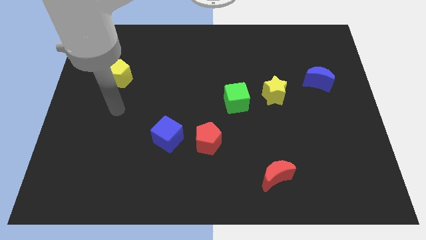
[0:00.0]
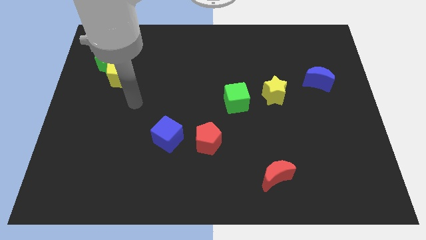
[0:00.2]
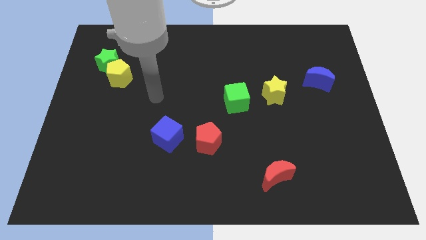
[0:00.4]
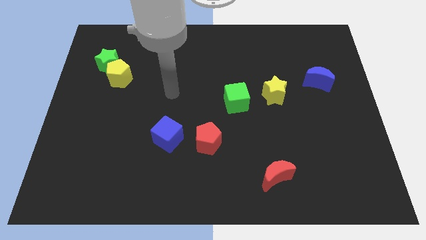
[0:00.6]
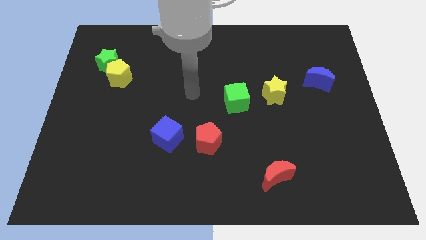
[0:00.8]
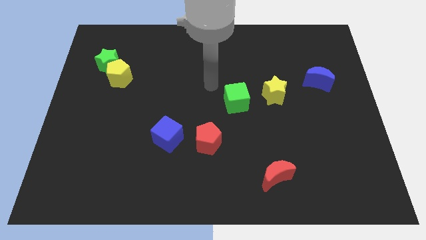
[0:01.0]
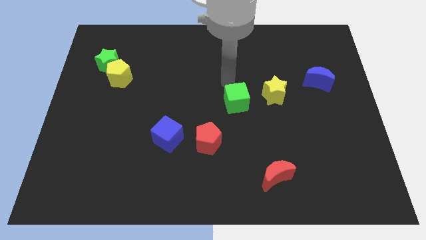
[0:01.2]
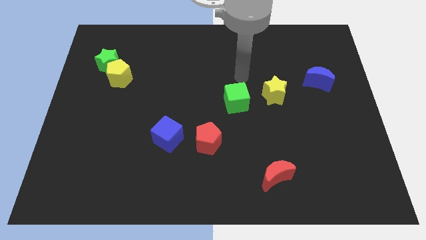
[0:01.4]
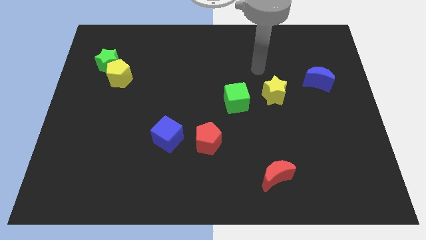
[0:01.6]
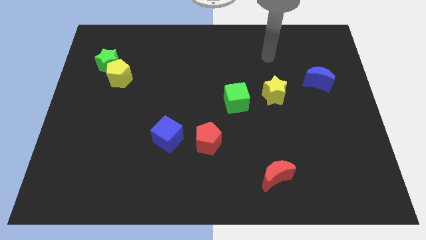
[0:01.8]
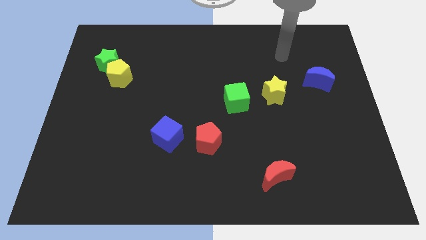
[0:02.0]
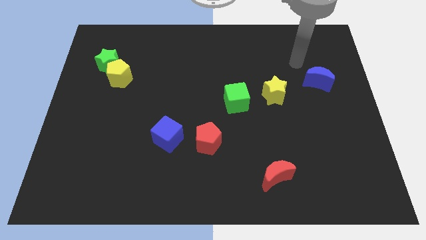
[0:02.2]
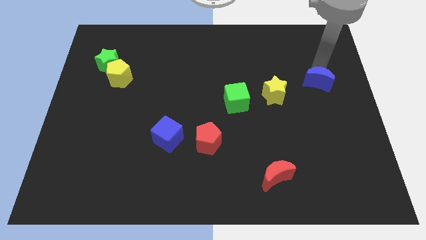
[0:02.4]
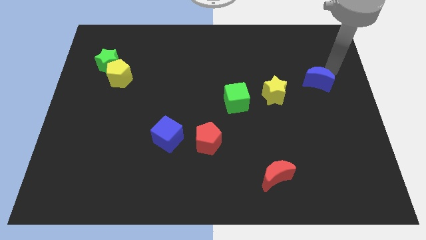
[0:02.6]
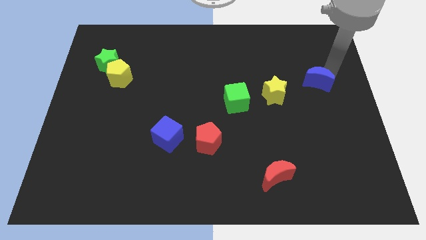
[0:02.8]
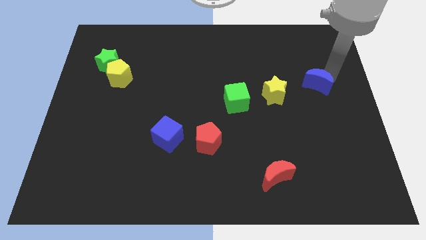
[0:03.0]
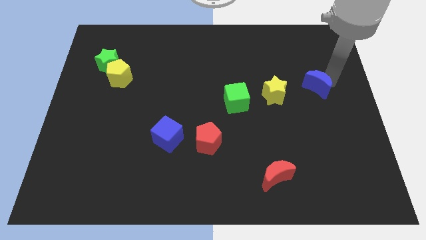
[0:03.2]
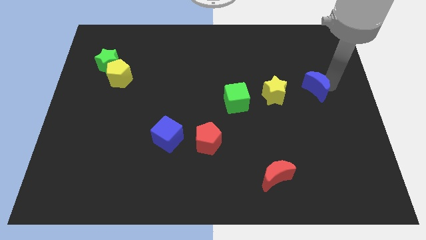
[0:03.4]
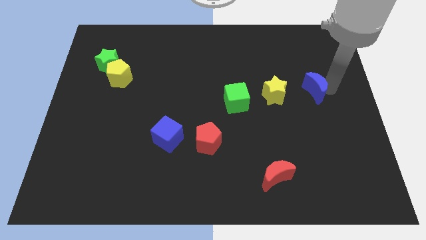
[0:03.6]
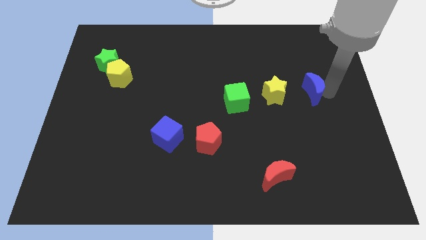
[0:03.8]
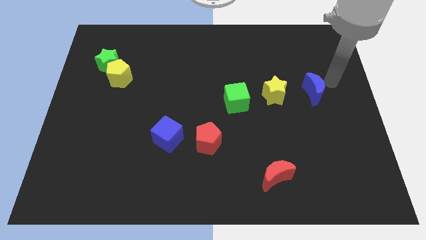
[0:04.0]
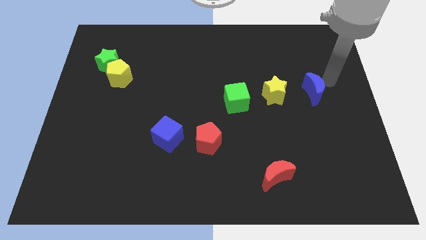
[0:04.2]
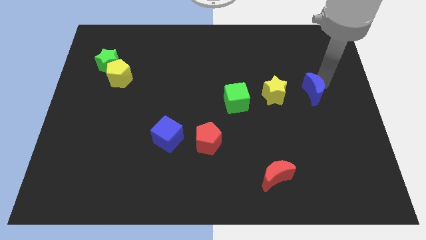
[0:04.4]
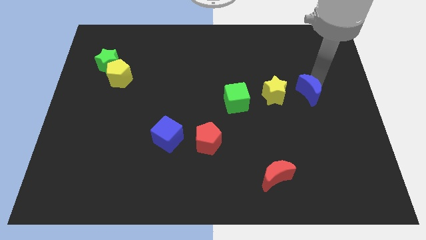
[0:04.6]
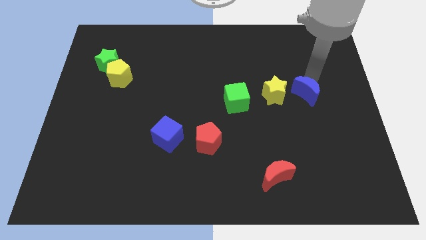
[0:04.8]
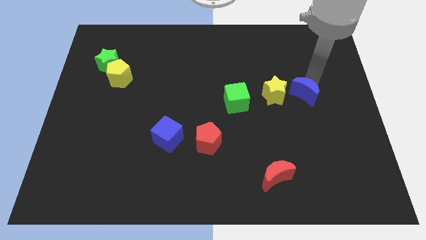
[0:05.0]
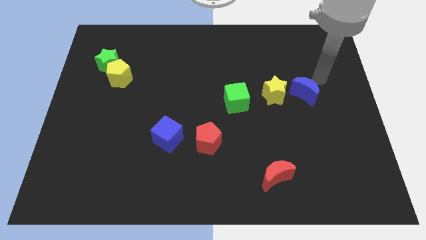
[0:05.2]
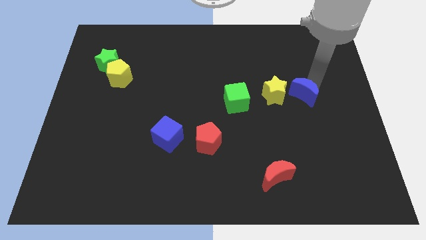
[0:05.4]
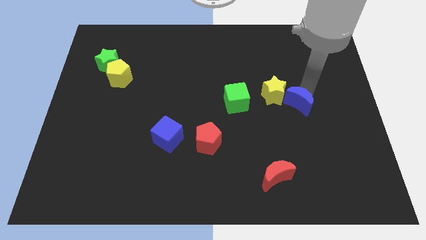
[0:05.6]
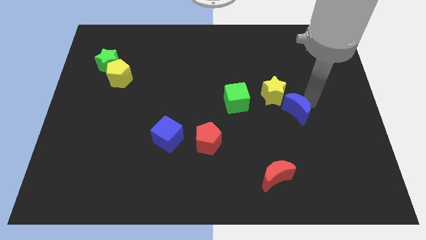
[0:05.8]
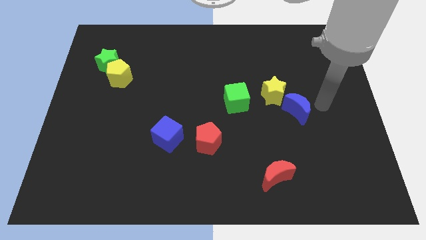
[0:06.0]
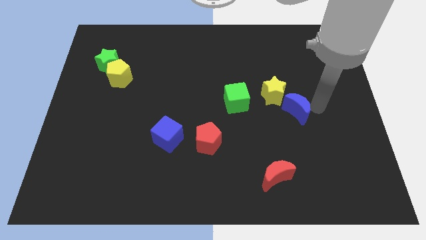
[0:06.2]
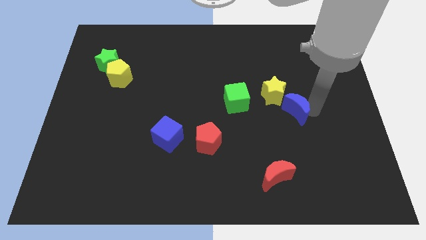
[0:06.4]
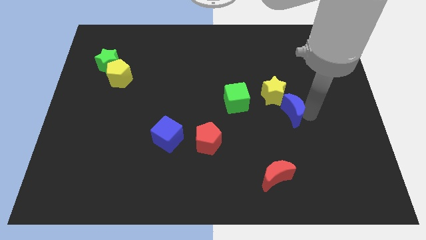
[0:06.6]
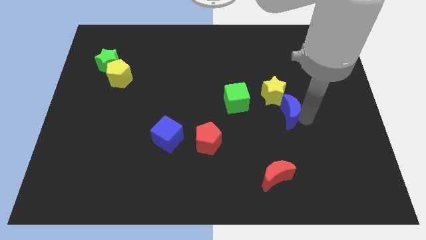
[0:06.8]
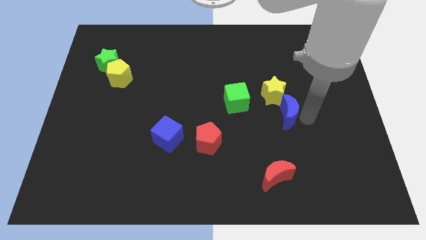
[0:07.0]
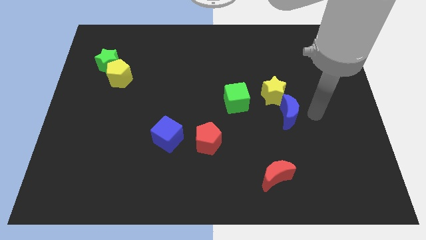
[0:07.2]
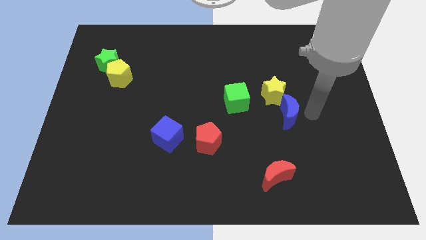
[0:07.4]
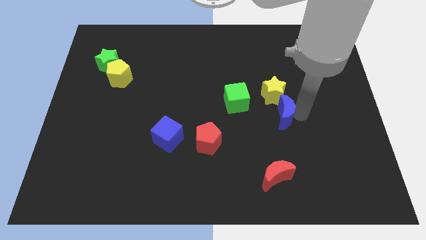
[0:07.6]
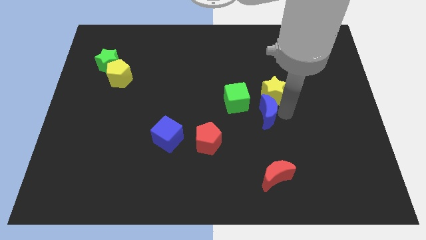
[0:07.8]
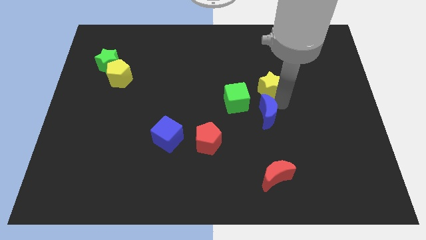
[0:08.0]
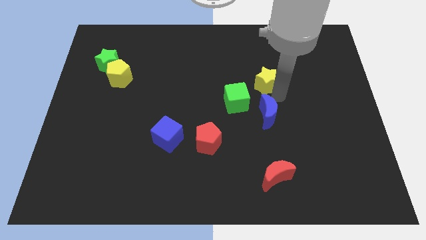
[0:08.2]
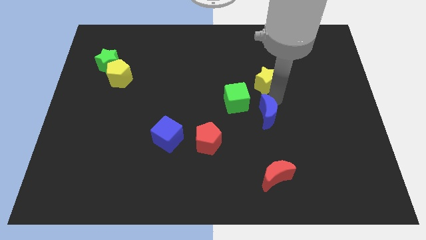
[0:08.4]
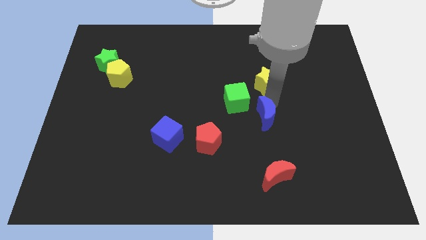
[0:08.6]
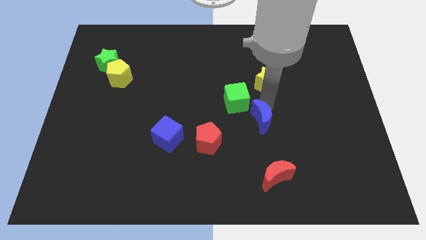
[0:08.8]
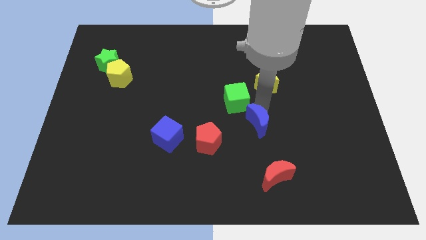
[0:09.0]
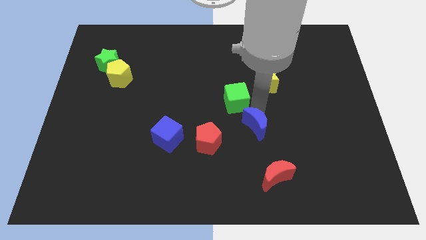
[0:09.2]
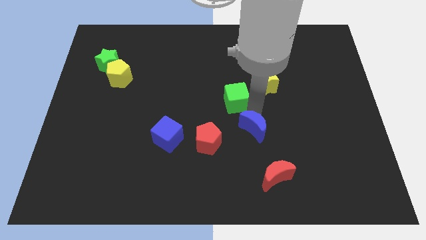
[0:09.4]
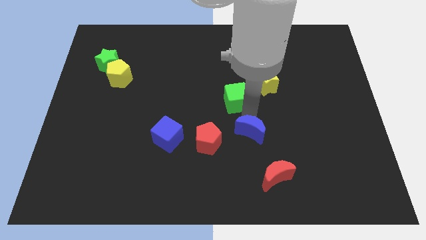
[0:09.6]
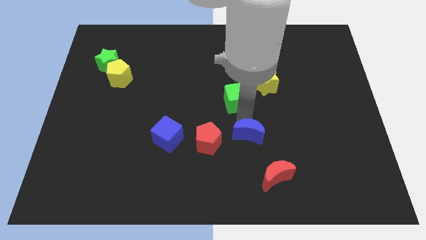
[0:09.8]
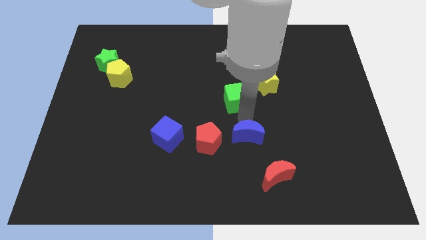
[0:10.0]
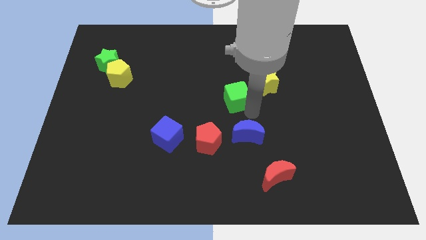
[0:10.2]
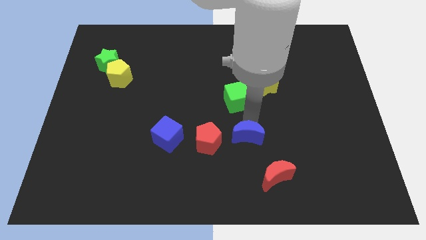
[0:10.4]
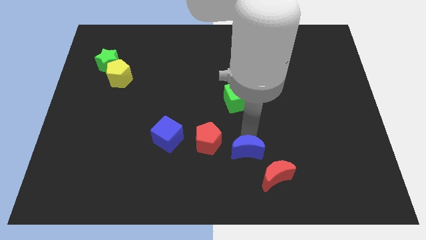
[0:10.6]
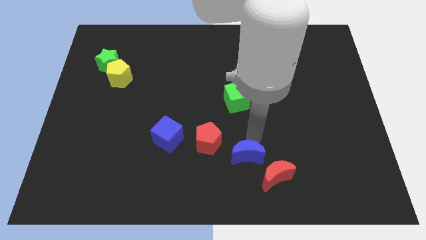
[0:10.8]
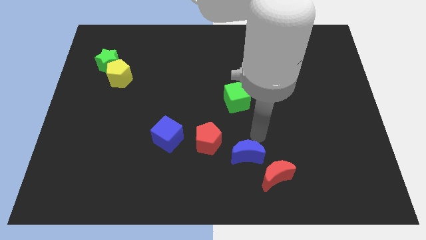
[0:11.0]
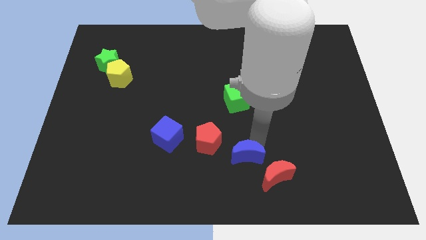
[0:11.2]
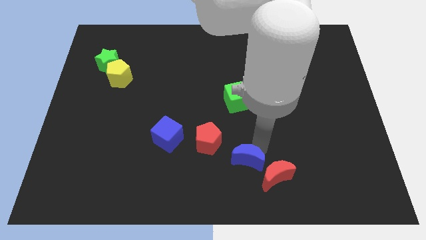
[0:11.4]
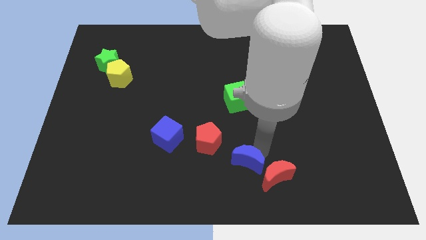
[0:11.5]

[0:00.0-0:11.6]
push the blue moon to the bottom side

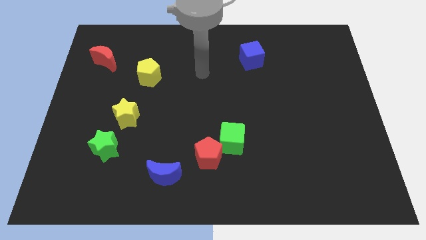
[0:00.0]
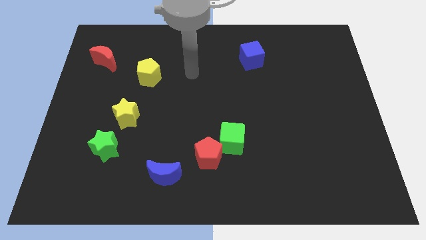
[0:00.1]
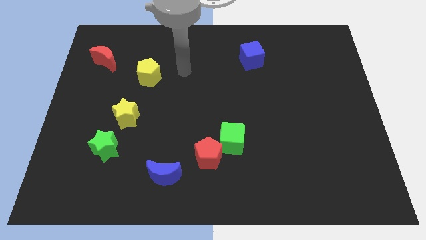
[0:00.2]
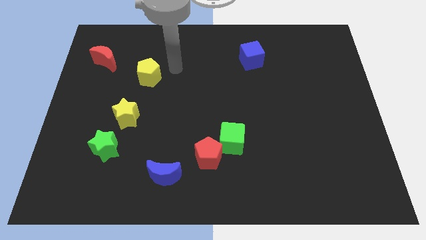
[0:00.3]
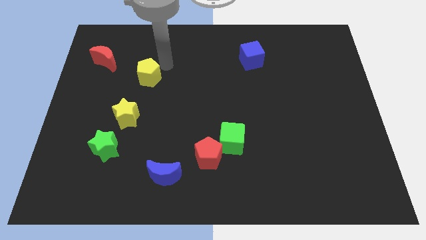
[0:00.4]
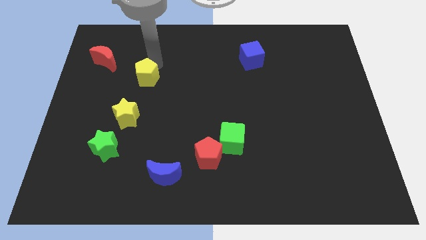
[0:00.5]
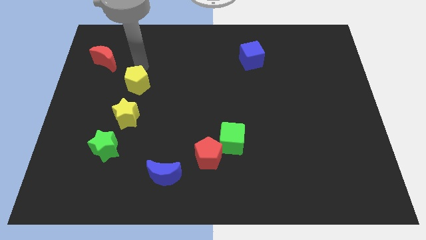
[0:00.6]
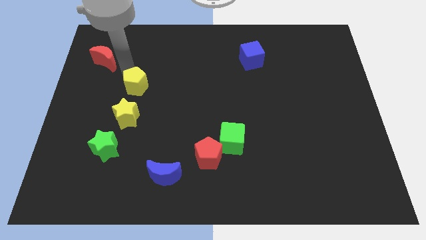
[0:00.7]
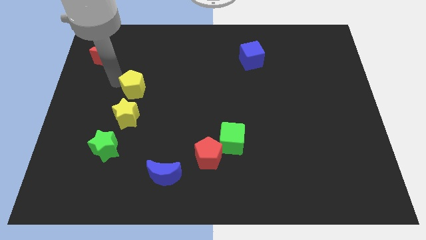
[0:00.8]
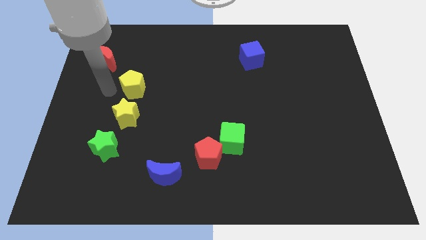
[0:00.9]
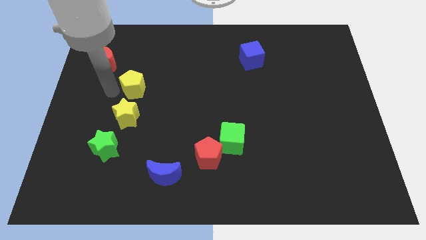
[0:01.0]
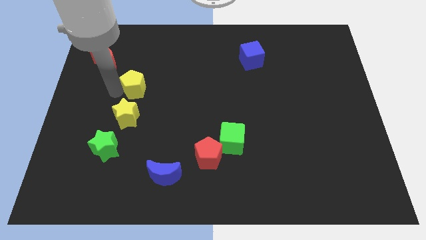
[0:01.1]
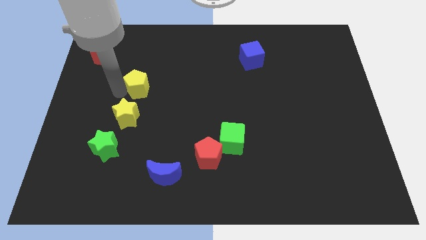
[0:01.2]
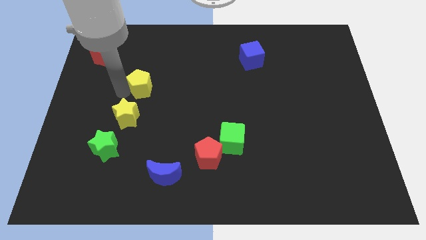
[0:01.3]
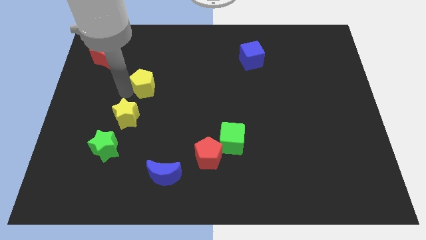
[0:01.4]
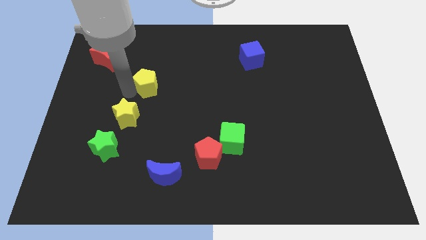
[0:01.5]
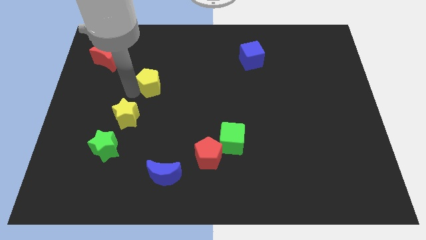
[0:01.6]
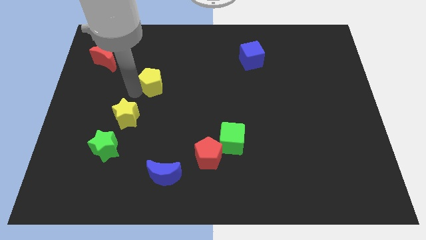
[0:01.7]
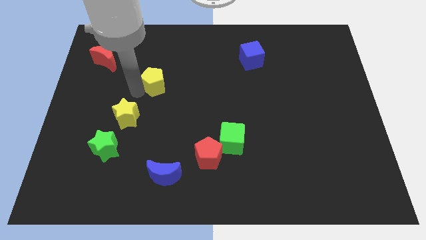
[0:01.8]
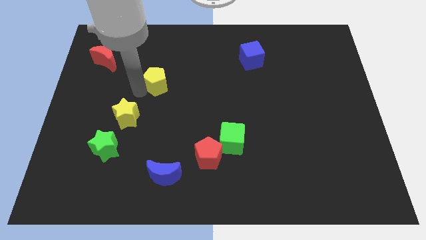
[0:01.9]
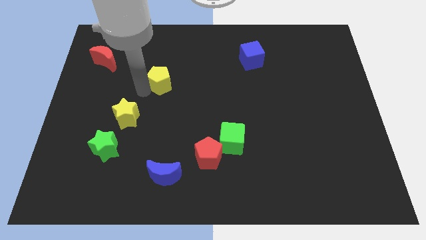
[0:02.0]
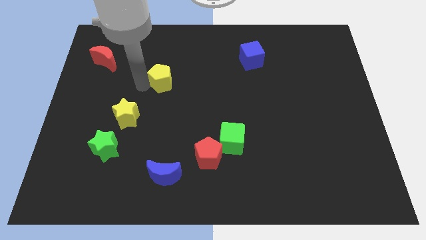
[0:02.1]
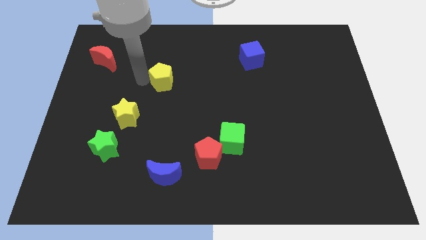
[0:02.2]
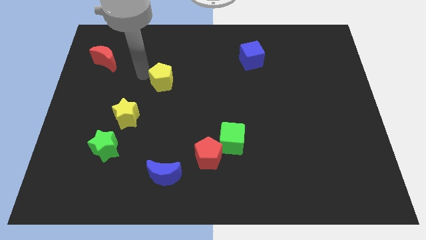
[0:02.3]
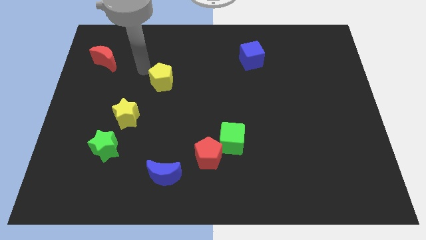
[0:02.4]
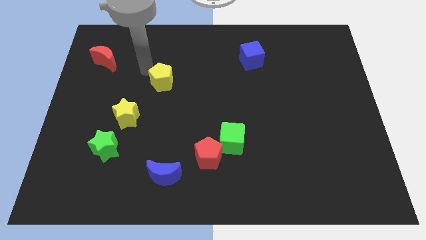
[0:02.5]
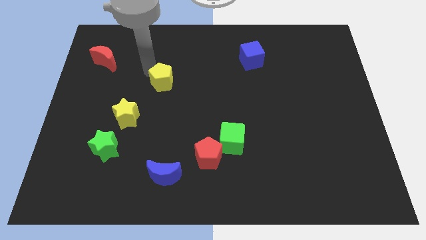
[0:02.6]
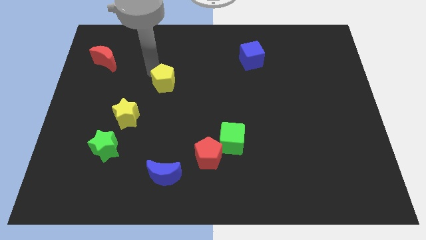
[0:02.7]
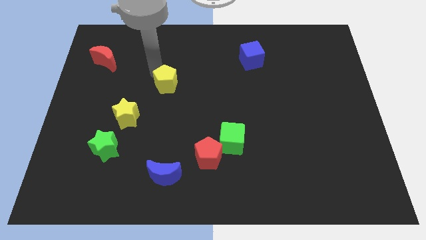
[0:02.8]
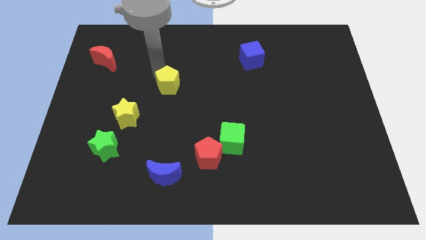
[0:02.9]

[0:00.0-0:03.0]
move the yellow pentagon to the center of the board
